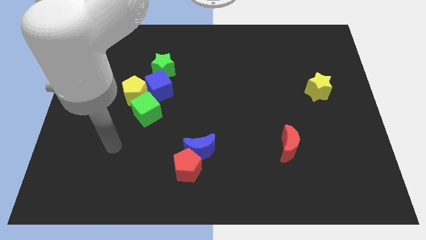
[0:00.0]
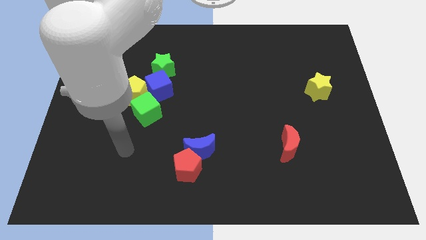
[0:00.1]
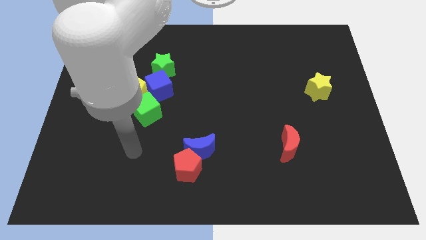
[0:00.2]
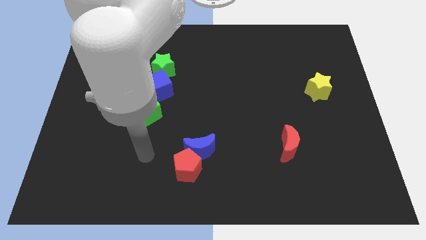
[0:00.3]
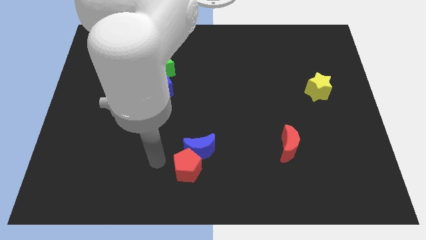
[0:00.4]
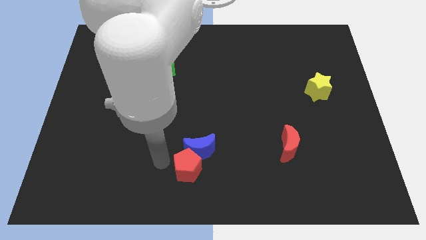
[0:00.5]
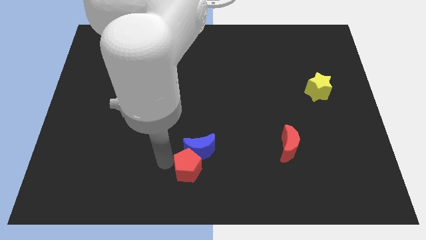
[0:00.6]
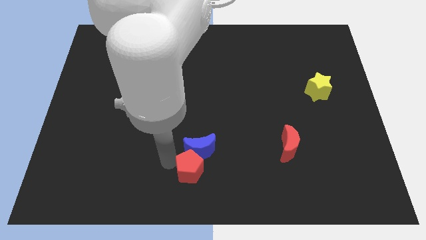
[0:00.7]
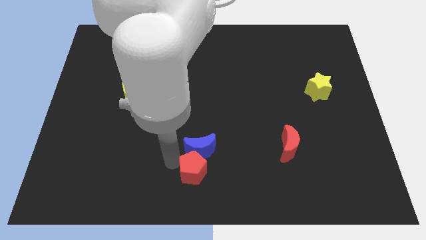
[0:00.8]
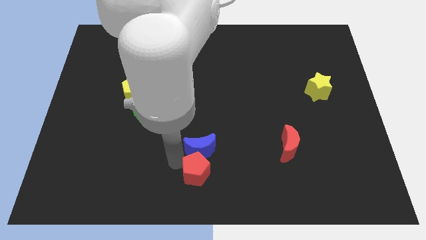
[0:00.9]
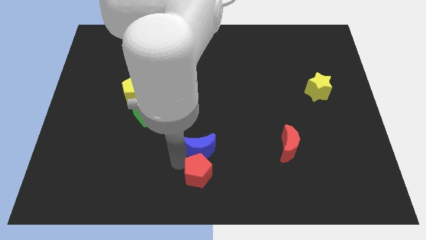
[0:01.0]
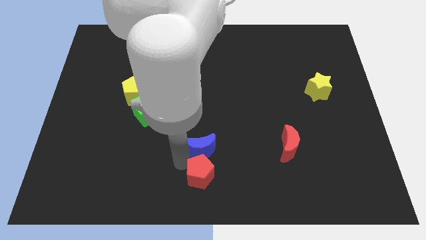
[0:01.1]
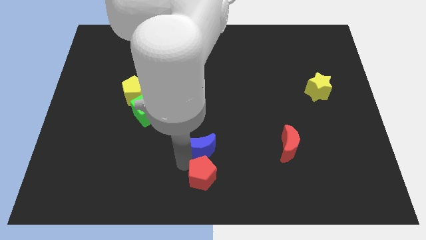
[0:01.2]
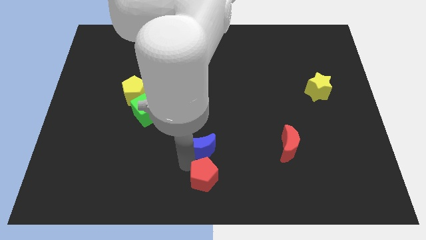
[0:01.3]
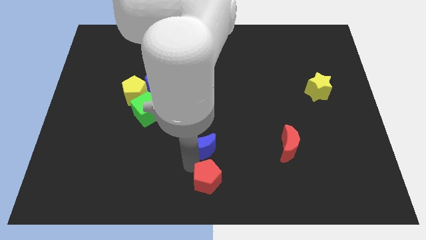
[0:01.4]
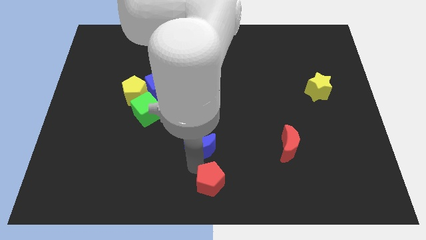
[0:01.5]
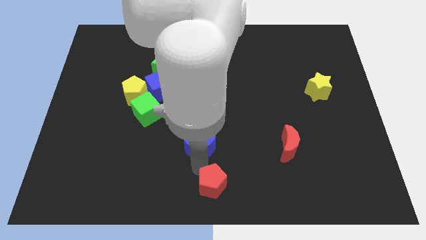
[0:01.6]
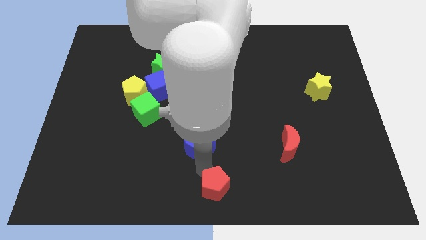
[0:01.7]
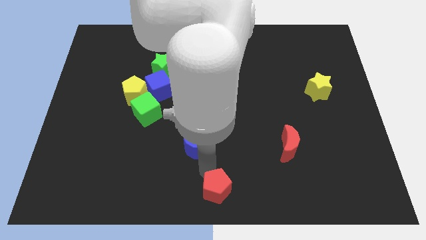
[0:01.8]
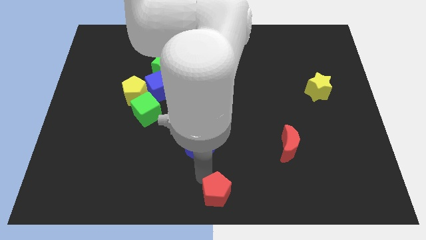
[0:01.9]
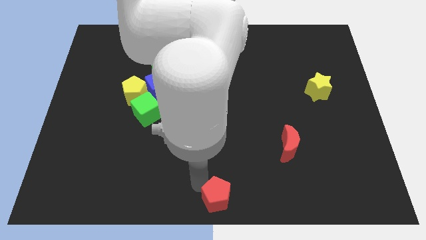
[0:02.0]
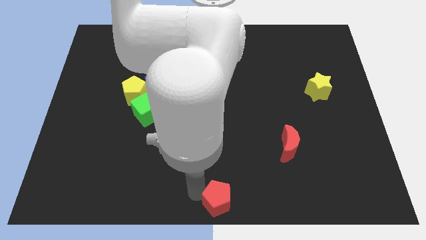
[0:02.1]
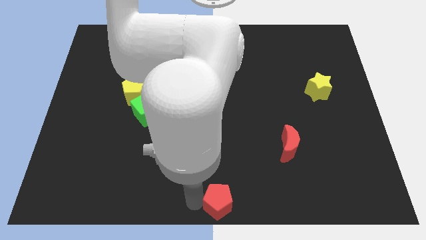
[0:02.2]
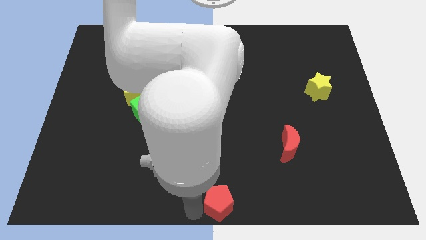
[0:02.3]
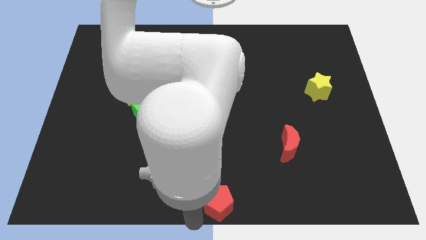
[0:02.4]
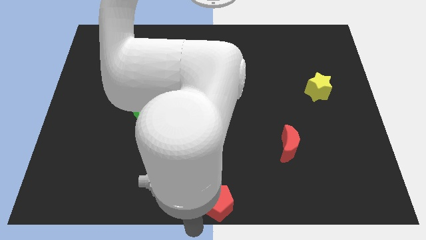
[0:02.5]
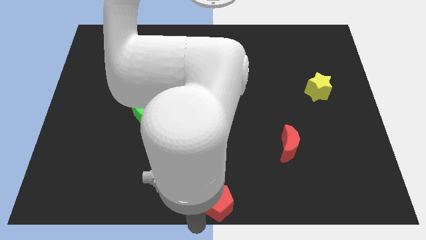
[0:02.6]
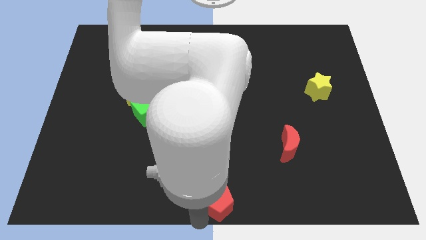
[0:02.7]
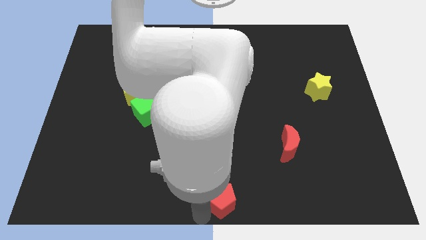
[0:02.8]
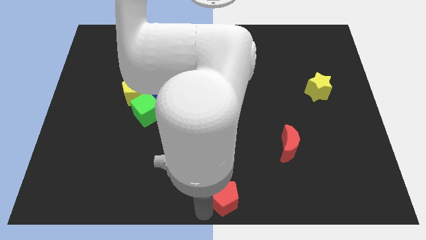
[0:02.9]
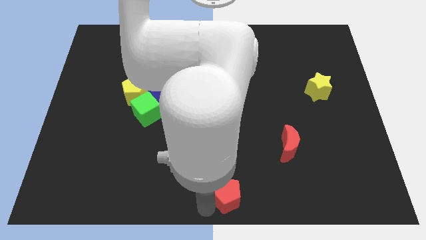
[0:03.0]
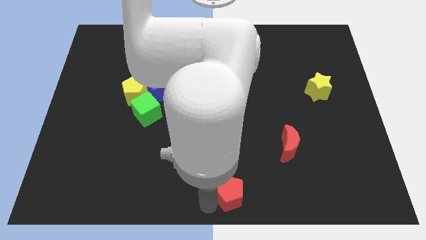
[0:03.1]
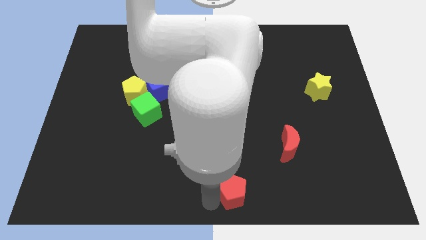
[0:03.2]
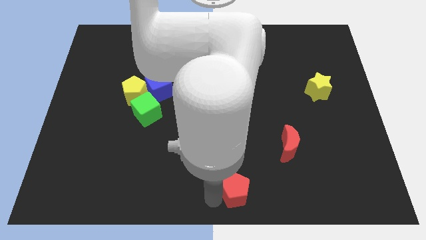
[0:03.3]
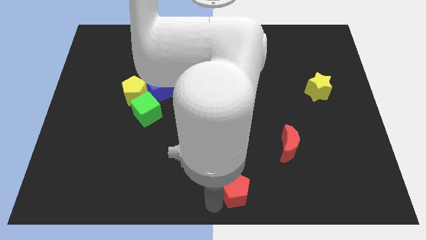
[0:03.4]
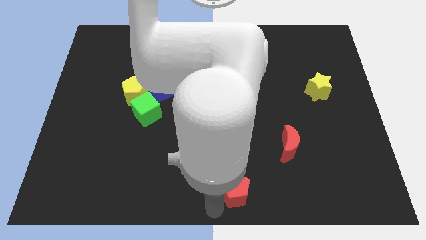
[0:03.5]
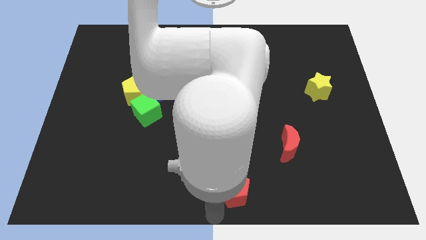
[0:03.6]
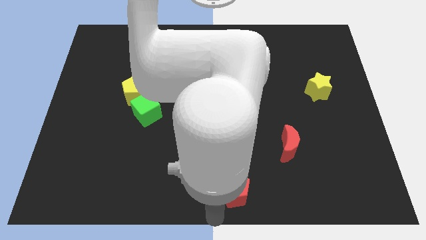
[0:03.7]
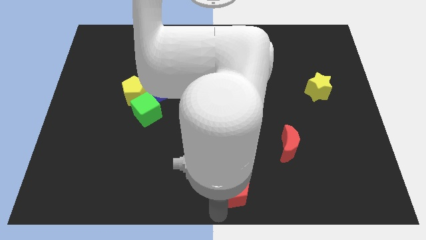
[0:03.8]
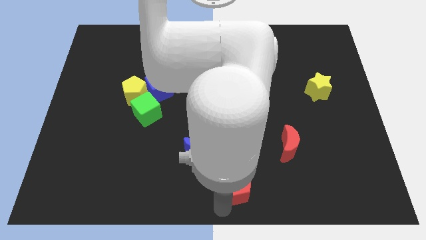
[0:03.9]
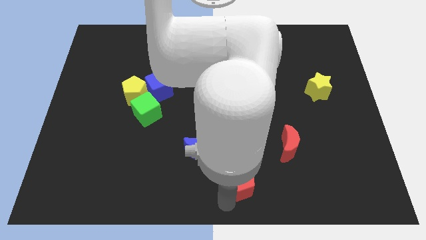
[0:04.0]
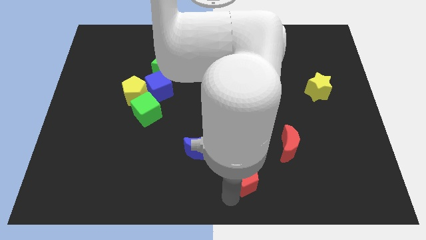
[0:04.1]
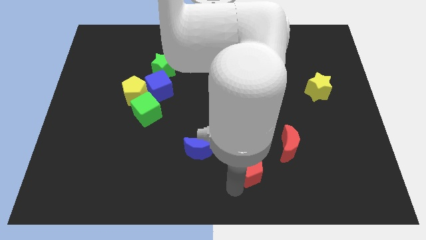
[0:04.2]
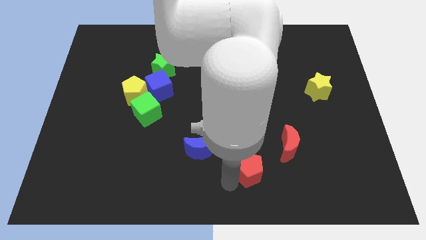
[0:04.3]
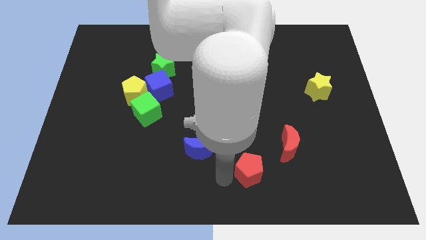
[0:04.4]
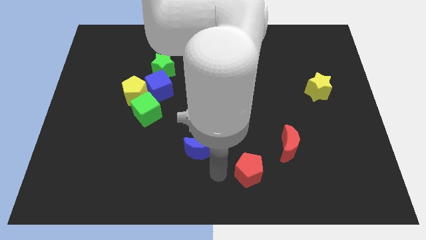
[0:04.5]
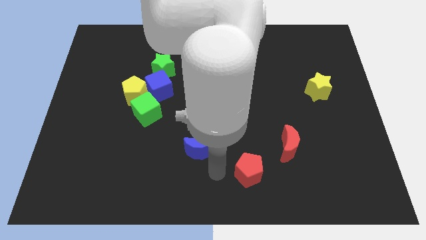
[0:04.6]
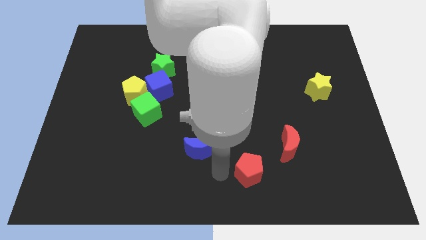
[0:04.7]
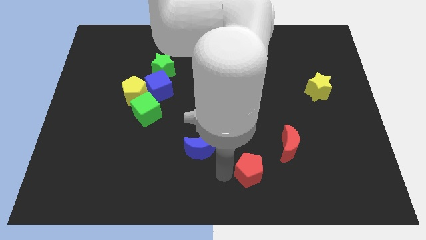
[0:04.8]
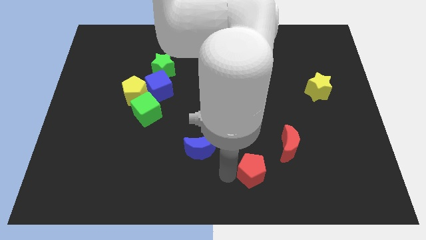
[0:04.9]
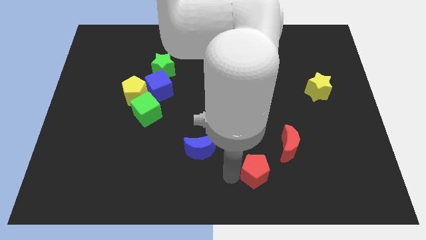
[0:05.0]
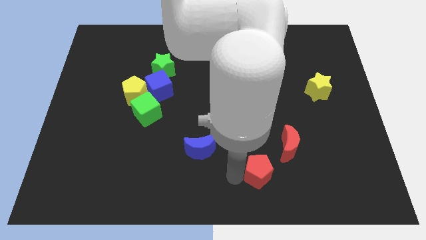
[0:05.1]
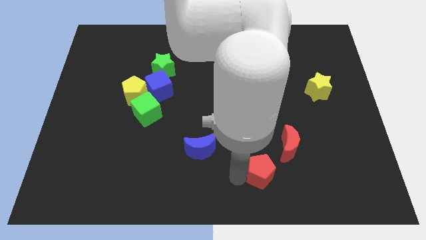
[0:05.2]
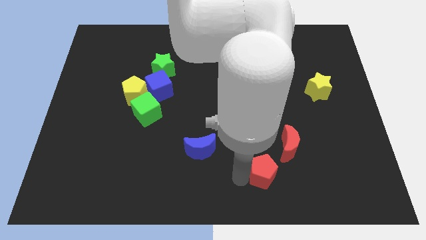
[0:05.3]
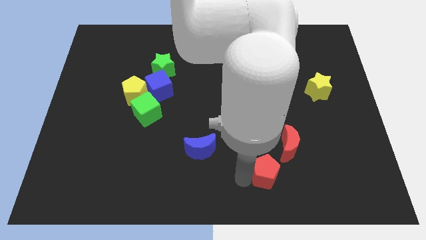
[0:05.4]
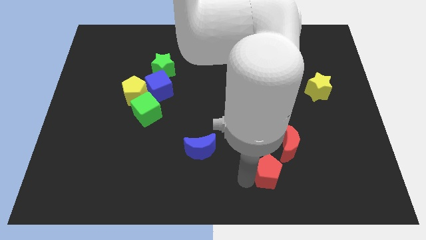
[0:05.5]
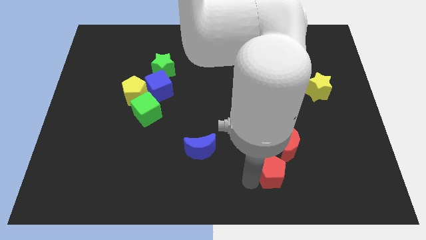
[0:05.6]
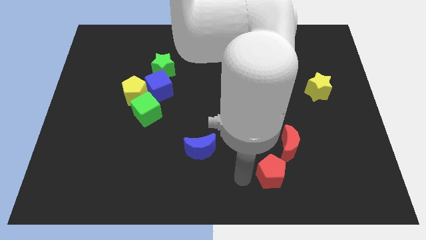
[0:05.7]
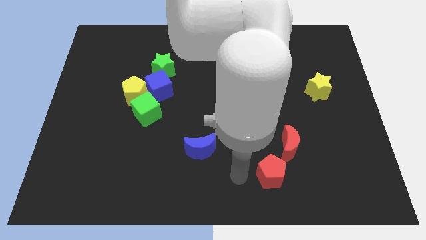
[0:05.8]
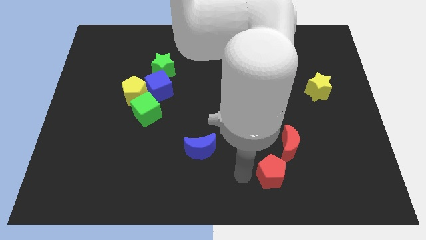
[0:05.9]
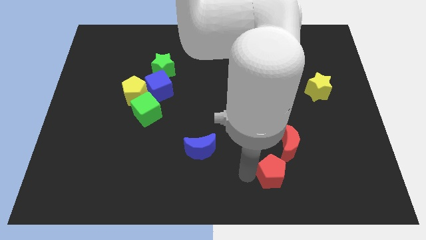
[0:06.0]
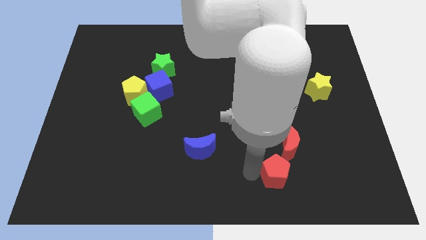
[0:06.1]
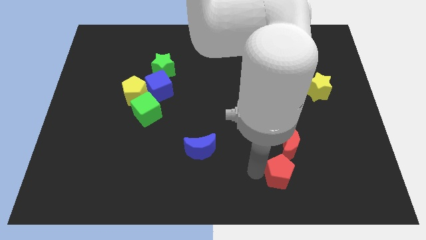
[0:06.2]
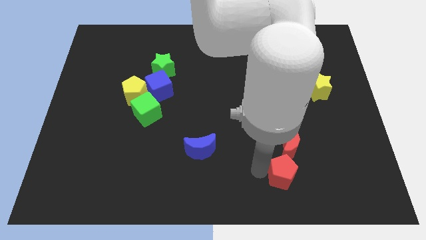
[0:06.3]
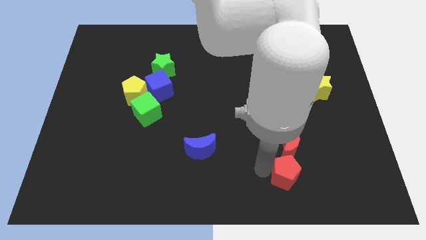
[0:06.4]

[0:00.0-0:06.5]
slide the red pentagon right

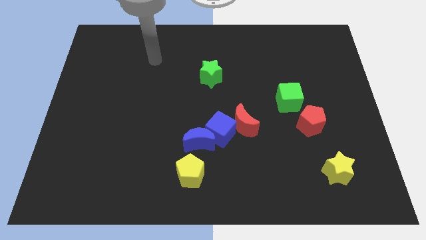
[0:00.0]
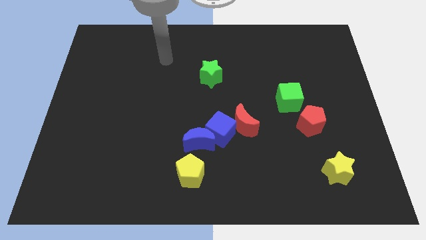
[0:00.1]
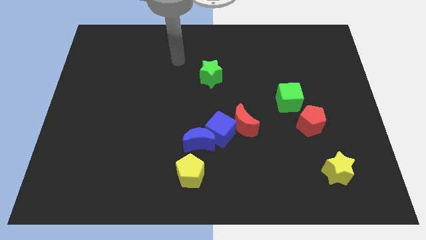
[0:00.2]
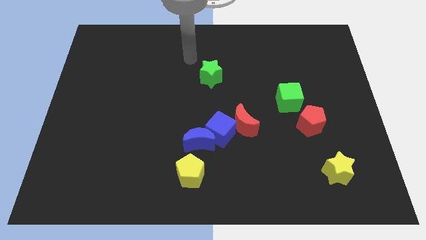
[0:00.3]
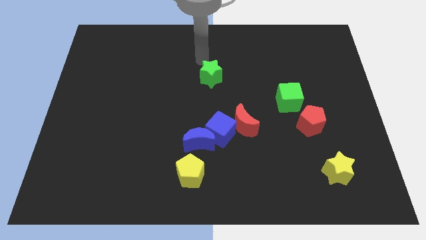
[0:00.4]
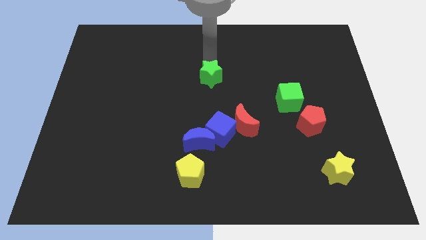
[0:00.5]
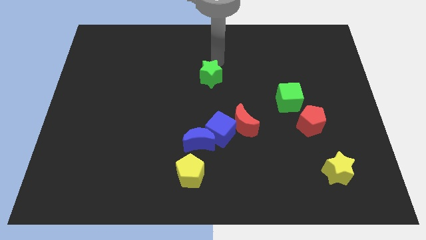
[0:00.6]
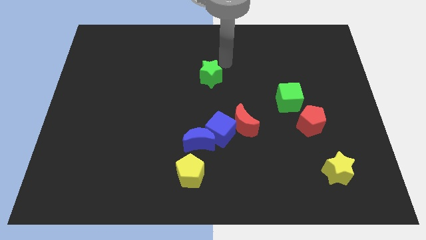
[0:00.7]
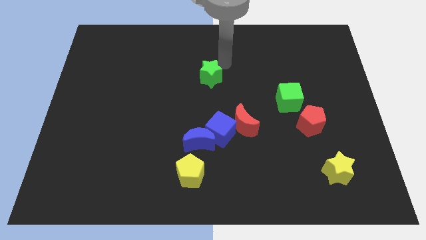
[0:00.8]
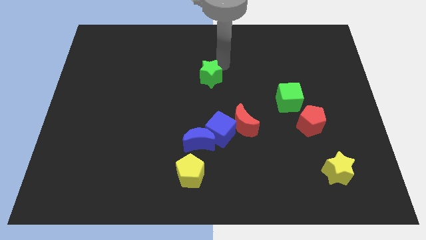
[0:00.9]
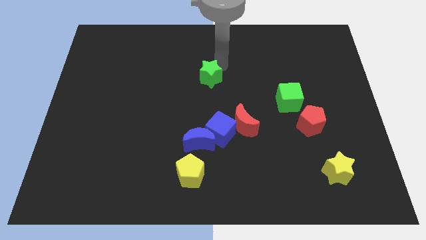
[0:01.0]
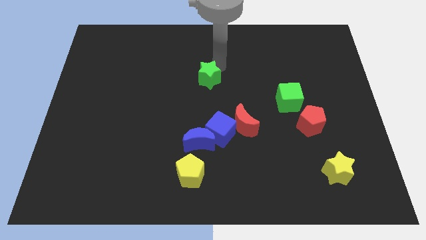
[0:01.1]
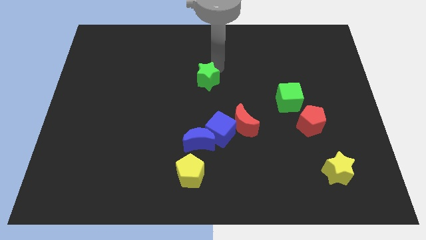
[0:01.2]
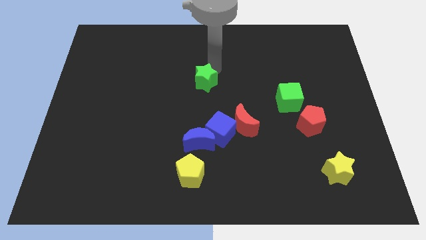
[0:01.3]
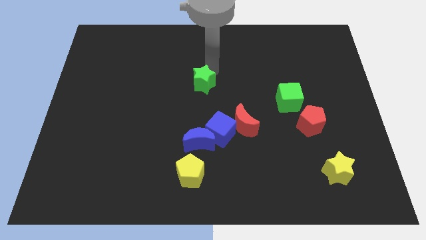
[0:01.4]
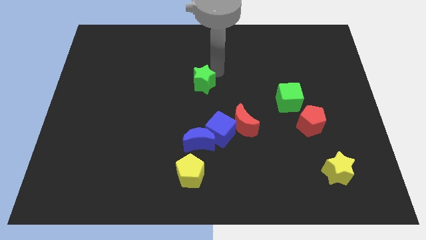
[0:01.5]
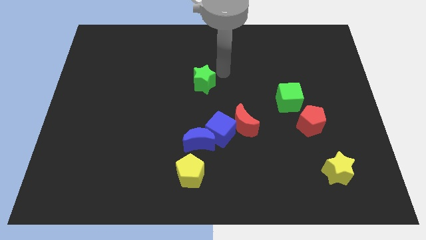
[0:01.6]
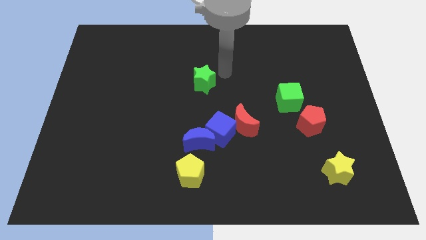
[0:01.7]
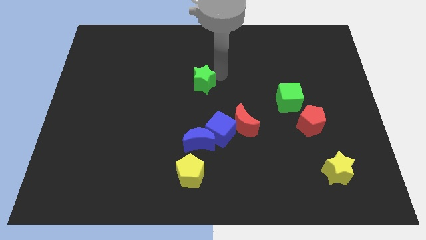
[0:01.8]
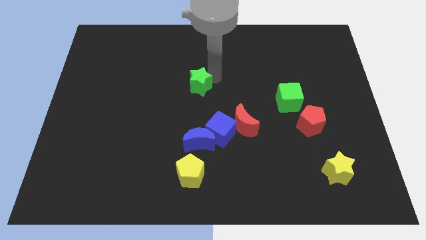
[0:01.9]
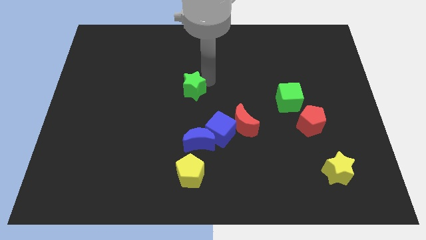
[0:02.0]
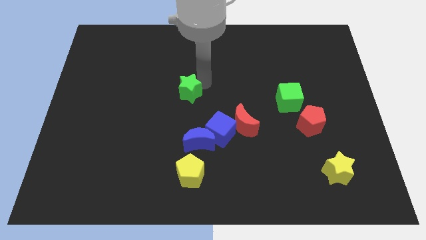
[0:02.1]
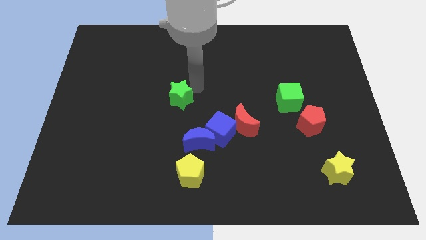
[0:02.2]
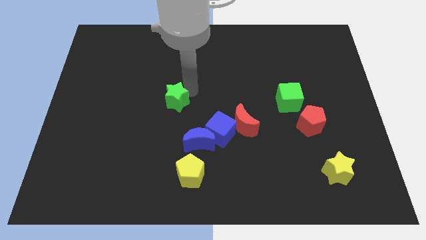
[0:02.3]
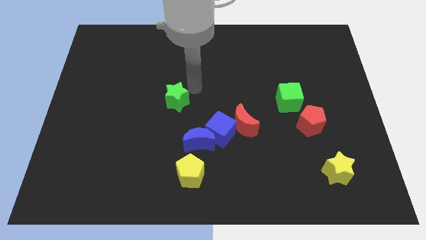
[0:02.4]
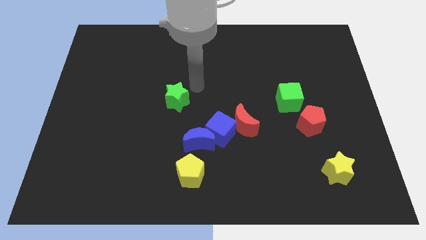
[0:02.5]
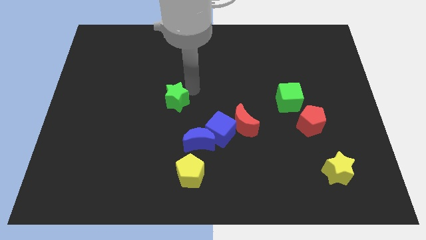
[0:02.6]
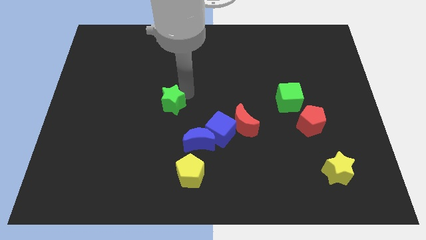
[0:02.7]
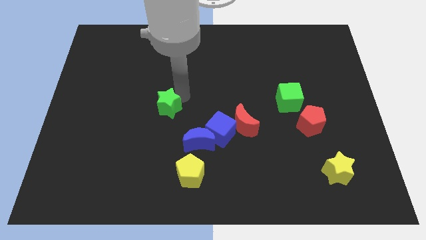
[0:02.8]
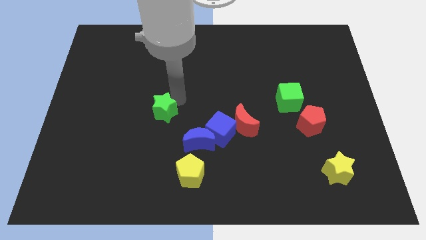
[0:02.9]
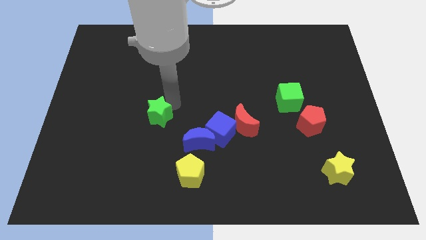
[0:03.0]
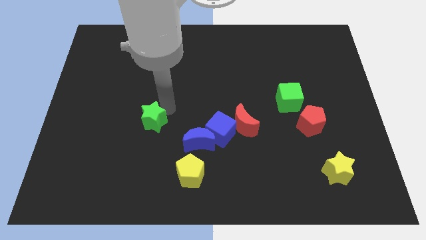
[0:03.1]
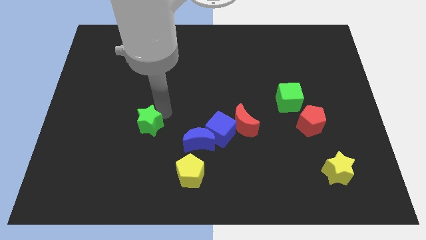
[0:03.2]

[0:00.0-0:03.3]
push the green star diagonally downwards and left
